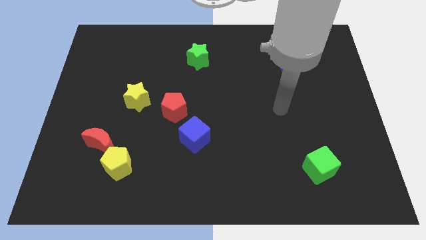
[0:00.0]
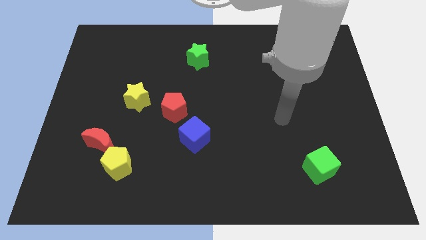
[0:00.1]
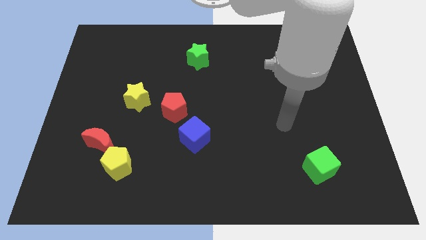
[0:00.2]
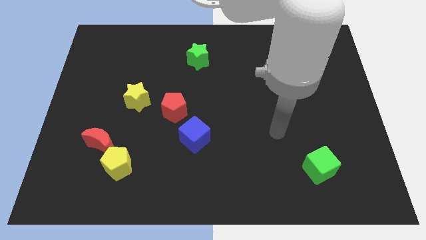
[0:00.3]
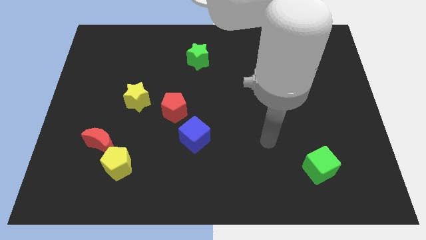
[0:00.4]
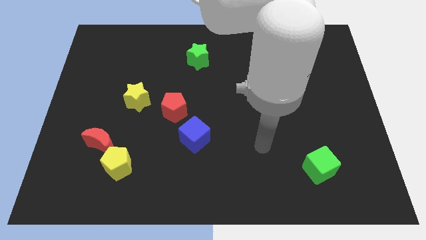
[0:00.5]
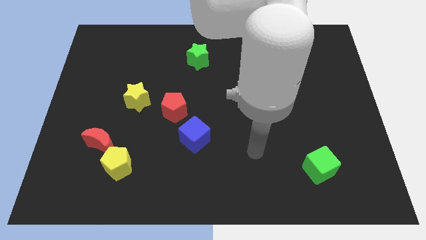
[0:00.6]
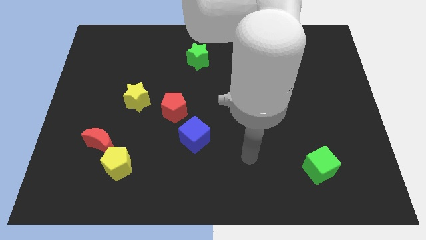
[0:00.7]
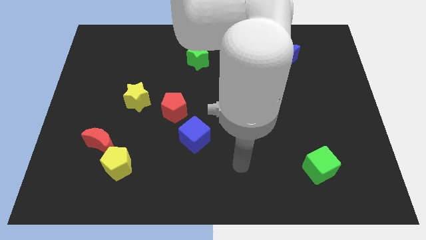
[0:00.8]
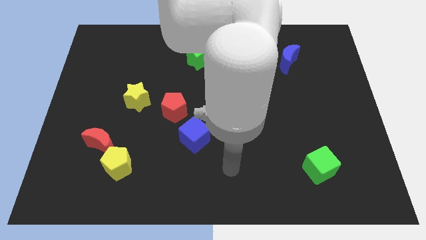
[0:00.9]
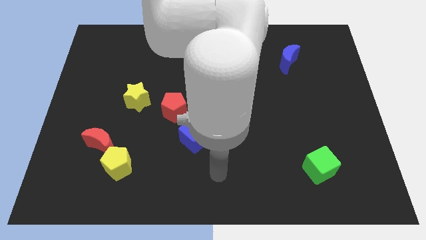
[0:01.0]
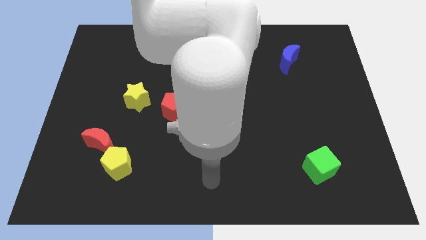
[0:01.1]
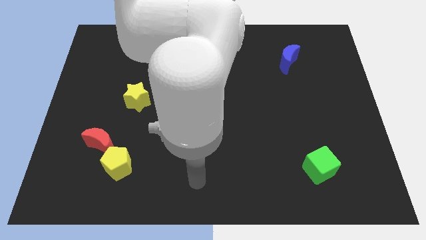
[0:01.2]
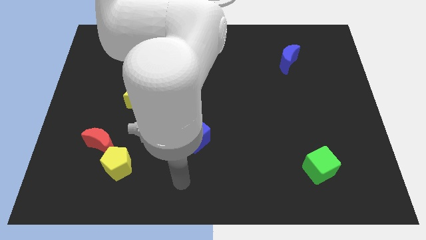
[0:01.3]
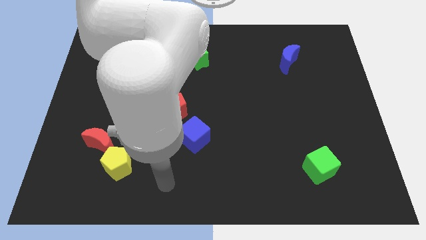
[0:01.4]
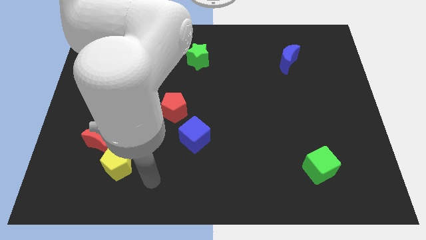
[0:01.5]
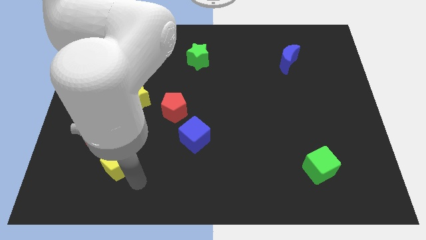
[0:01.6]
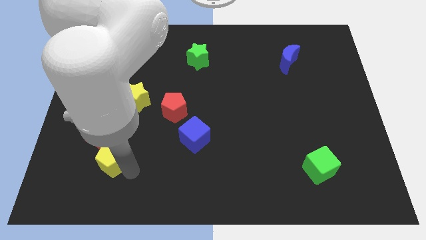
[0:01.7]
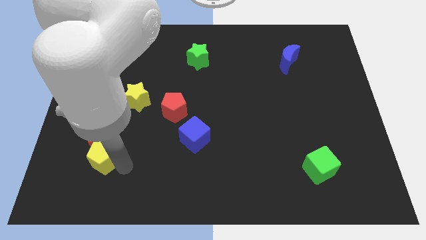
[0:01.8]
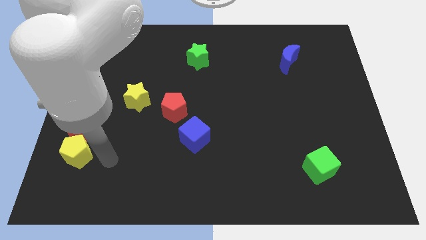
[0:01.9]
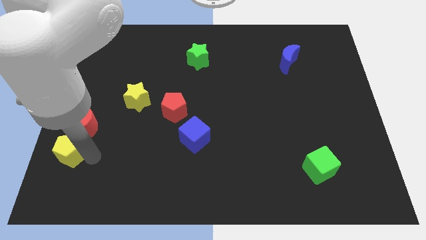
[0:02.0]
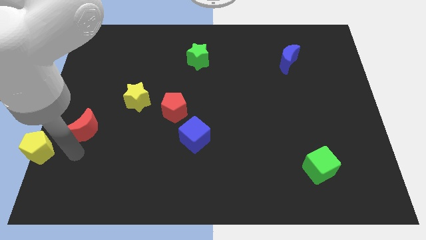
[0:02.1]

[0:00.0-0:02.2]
separate the red moon from the yellow pentagon

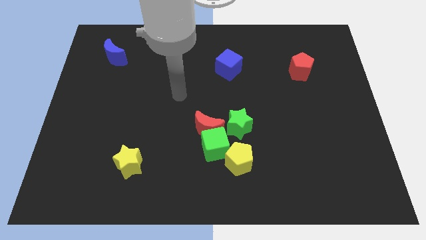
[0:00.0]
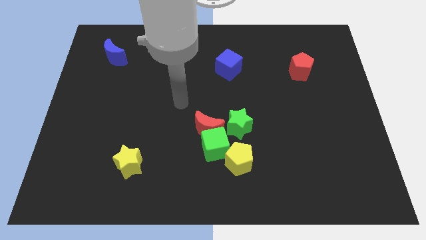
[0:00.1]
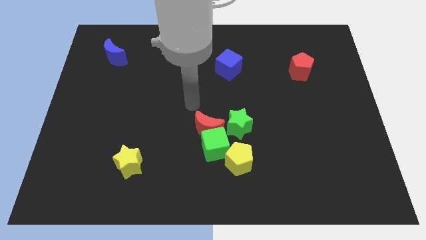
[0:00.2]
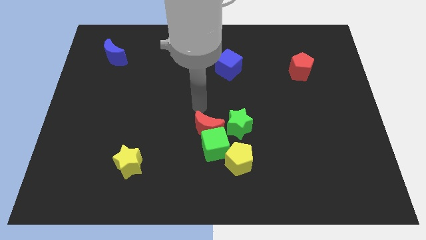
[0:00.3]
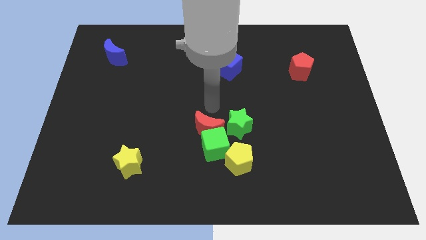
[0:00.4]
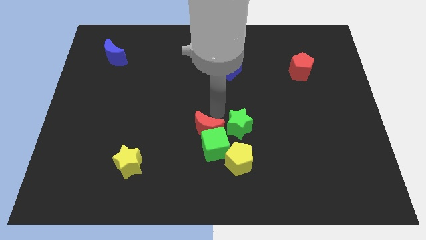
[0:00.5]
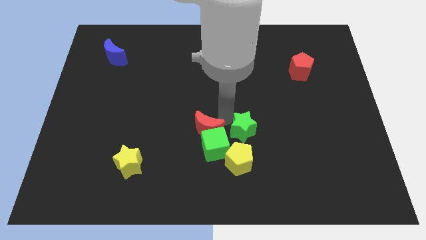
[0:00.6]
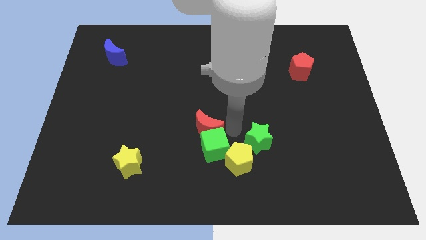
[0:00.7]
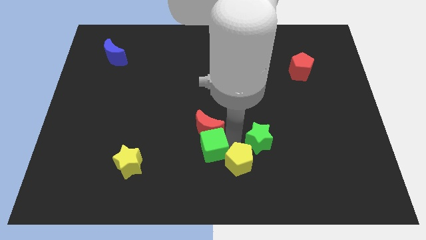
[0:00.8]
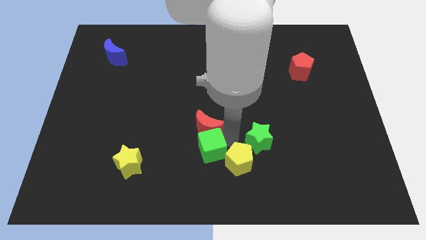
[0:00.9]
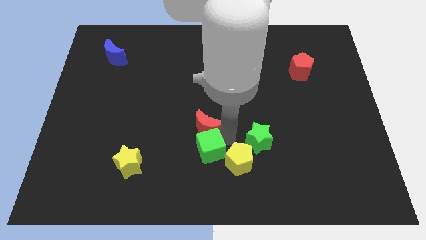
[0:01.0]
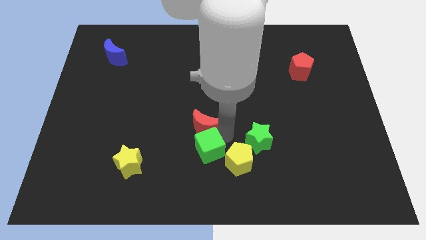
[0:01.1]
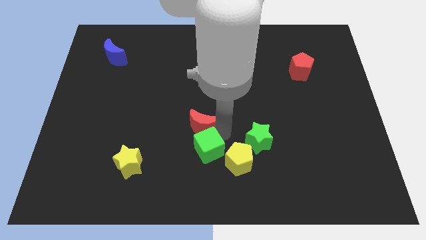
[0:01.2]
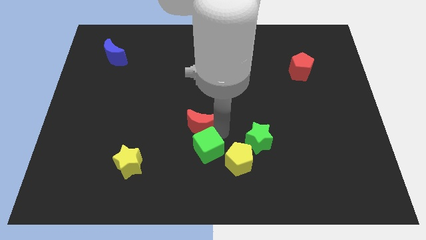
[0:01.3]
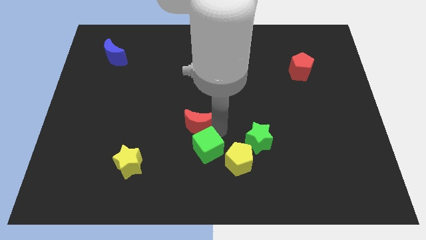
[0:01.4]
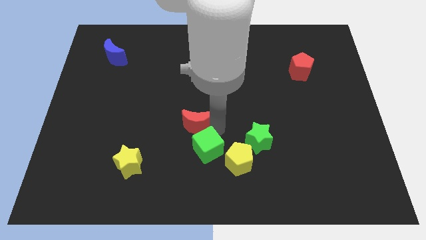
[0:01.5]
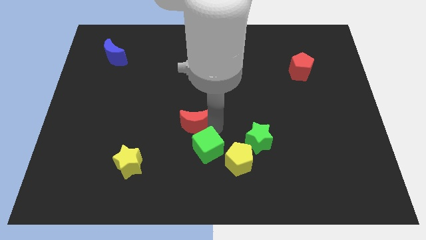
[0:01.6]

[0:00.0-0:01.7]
move the red moon away from the green cube and green star

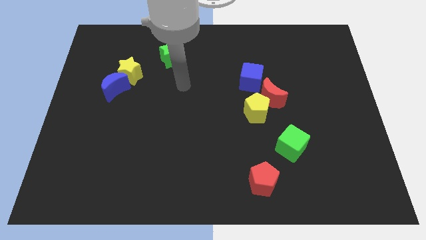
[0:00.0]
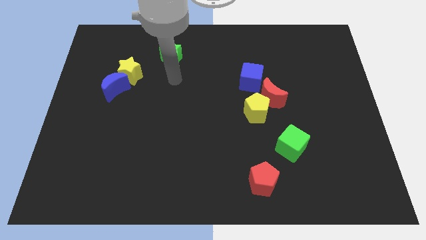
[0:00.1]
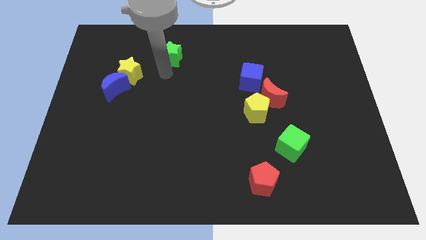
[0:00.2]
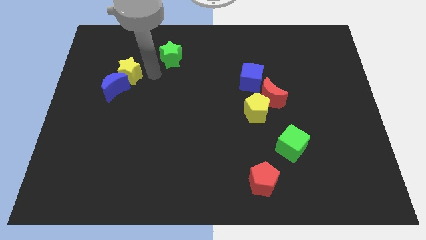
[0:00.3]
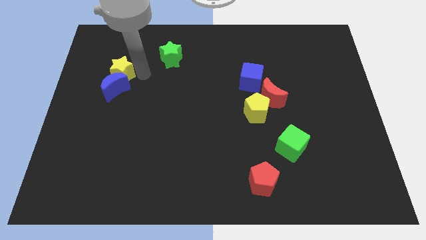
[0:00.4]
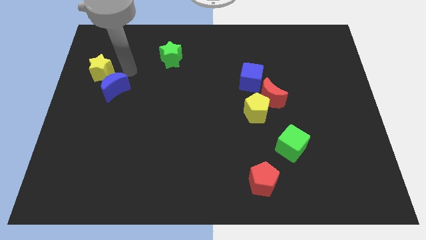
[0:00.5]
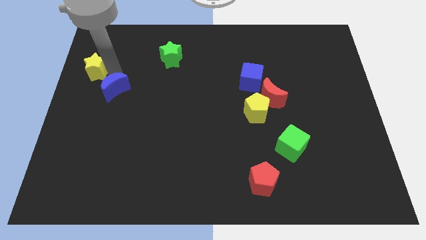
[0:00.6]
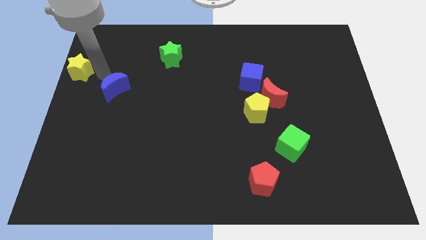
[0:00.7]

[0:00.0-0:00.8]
pull the blue moon apart from the yellow star

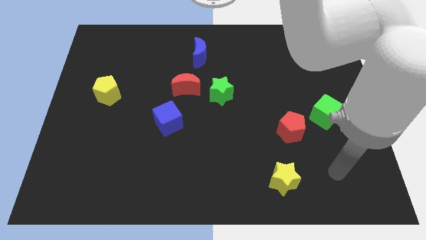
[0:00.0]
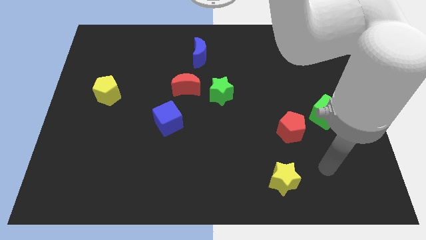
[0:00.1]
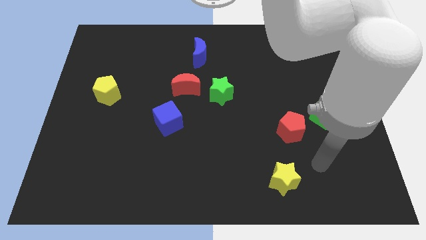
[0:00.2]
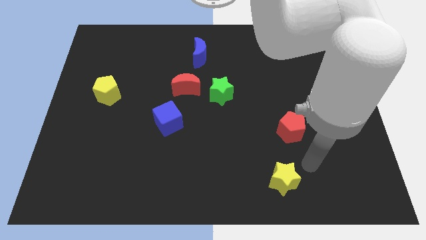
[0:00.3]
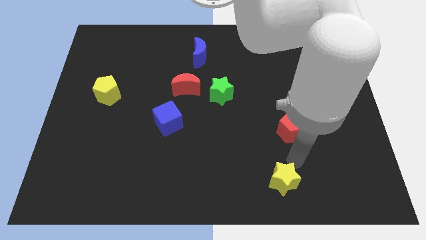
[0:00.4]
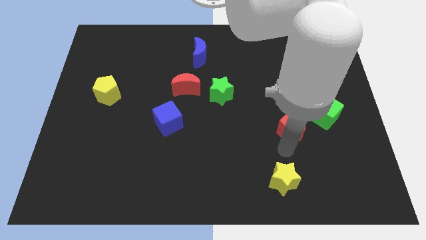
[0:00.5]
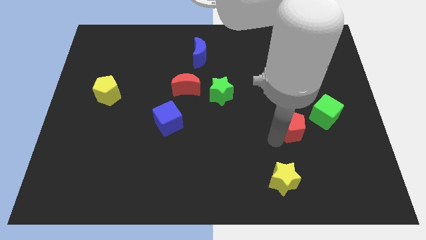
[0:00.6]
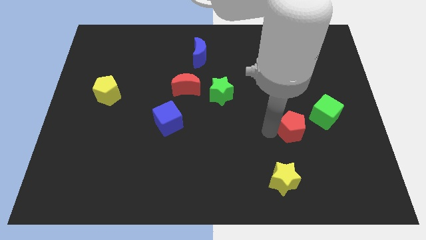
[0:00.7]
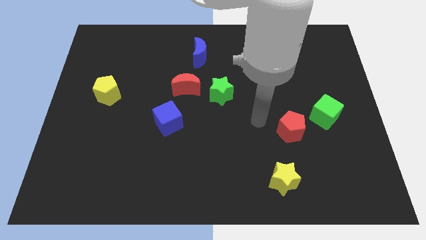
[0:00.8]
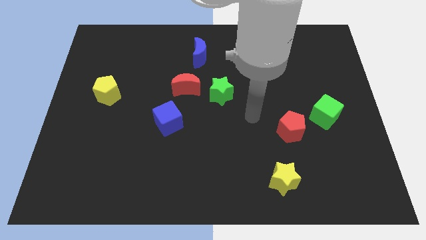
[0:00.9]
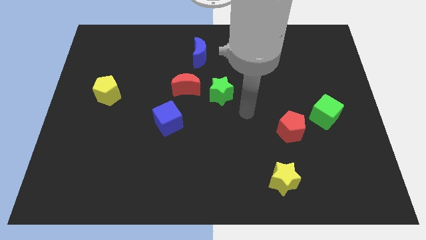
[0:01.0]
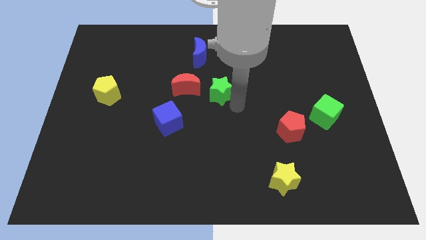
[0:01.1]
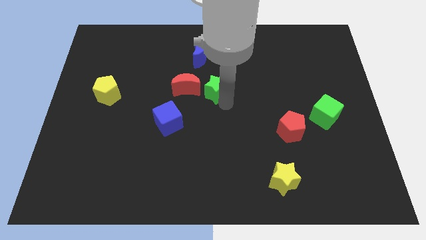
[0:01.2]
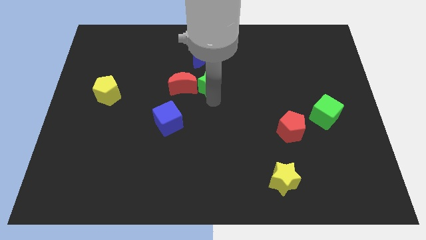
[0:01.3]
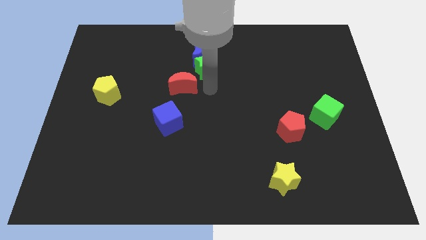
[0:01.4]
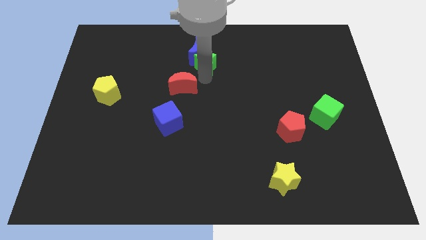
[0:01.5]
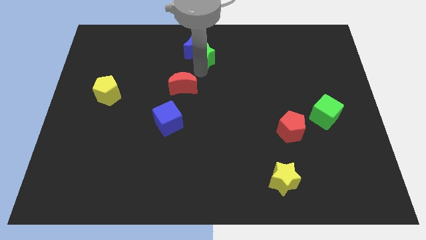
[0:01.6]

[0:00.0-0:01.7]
pull the red moon apart from the green star

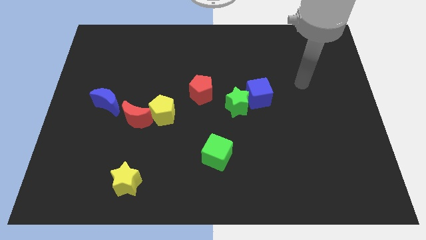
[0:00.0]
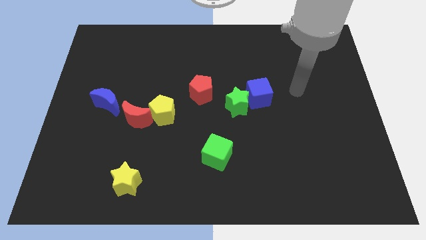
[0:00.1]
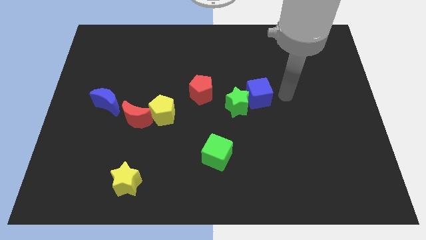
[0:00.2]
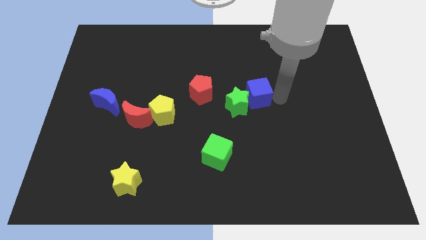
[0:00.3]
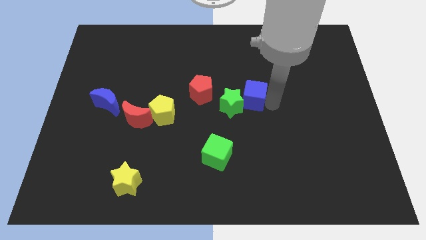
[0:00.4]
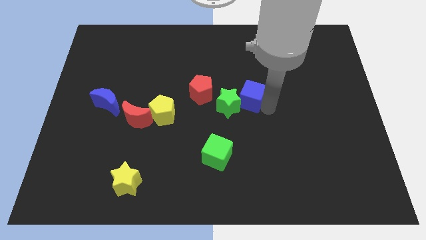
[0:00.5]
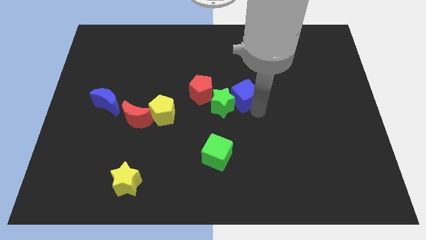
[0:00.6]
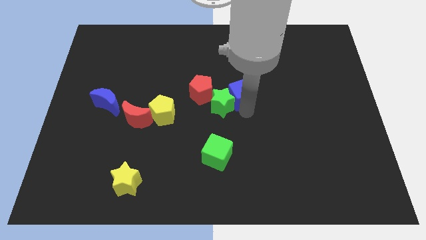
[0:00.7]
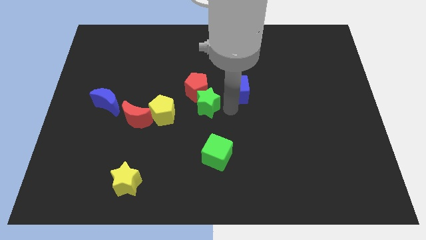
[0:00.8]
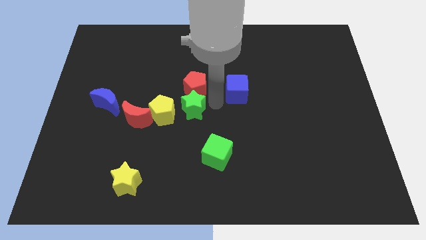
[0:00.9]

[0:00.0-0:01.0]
separate the blue cube from the green star

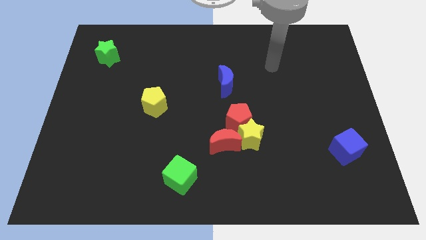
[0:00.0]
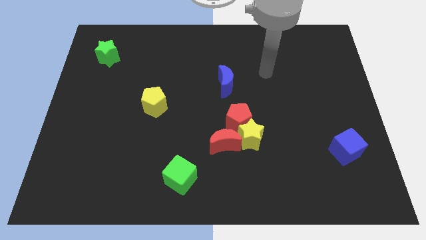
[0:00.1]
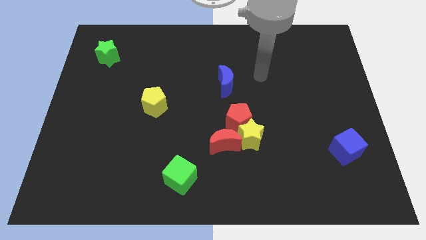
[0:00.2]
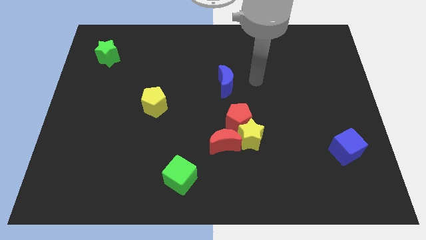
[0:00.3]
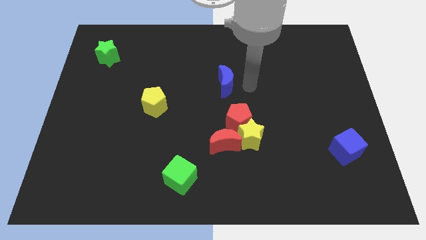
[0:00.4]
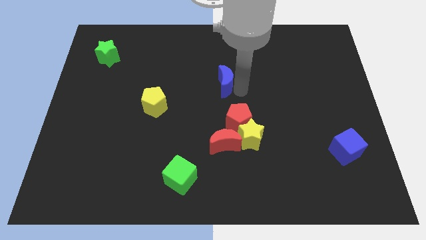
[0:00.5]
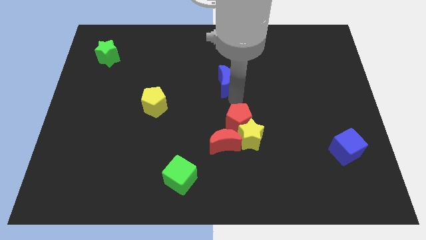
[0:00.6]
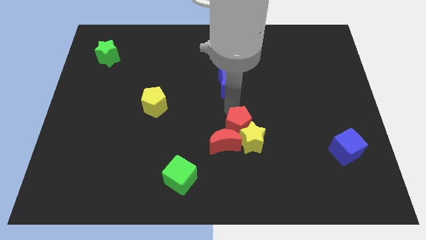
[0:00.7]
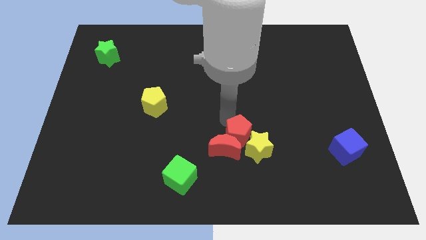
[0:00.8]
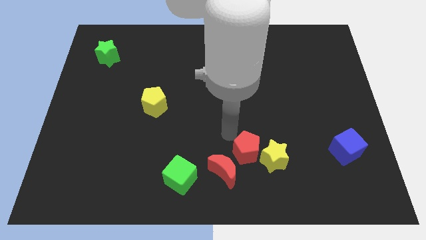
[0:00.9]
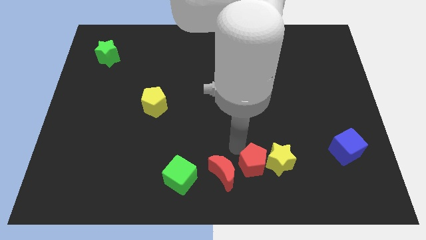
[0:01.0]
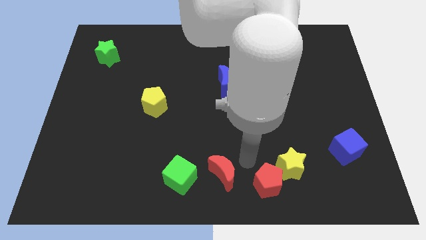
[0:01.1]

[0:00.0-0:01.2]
move the yellow star away from the red pentagon and red moon

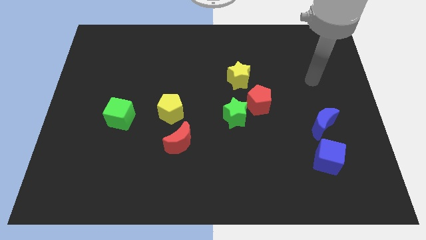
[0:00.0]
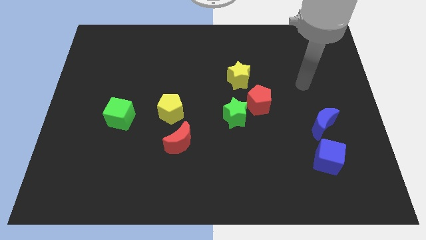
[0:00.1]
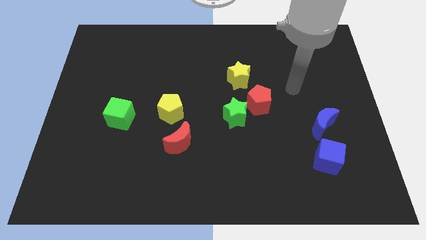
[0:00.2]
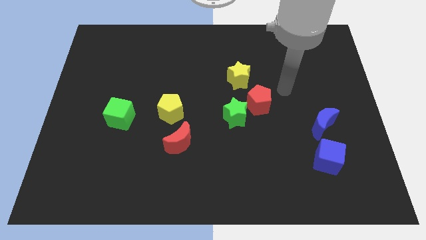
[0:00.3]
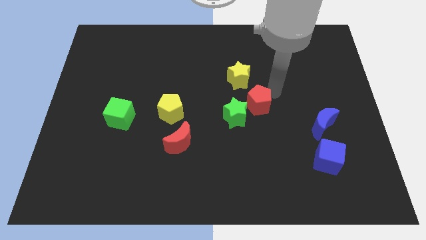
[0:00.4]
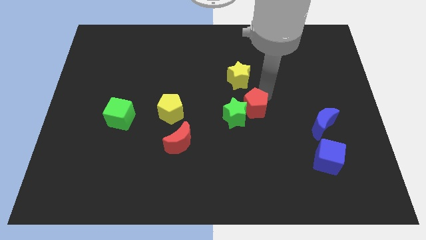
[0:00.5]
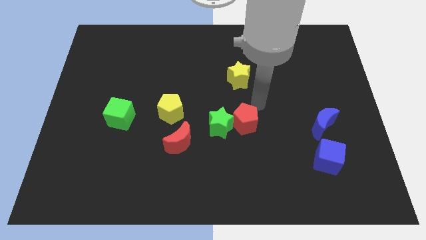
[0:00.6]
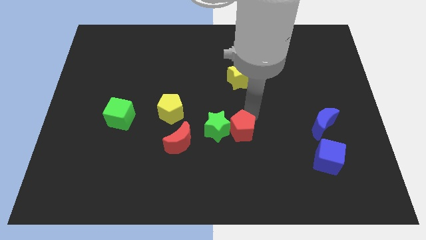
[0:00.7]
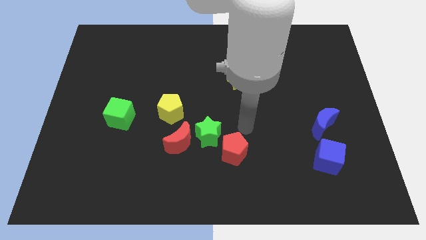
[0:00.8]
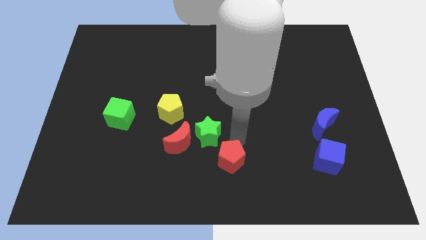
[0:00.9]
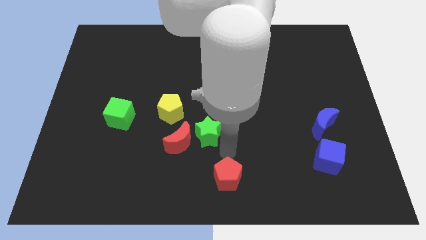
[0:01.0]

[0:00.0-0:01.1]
pull the green star apart from the red pentagon
